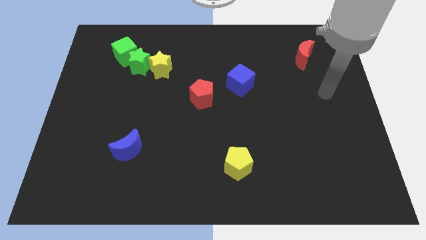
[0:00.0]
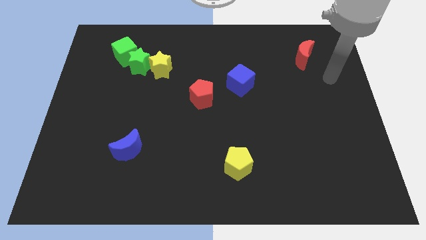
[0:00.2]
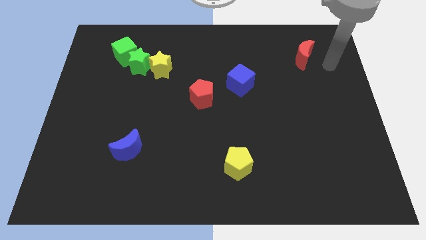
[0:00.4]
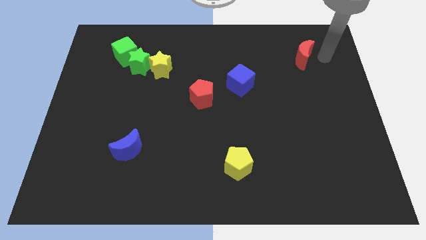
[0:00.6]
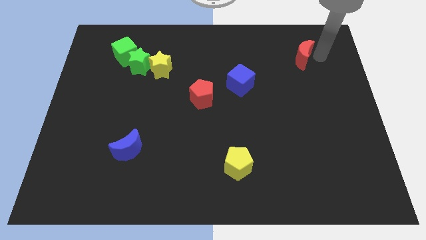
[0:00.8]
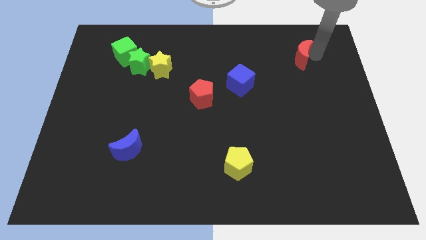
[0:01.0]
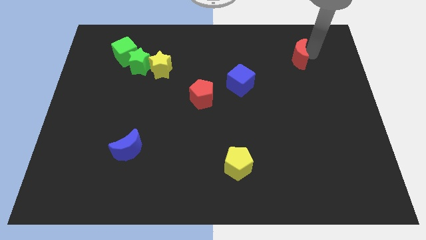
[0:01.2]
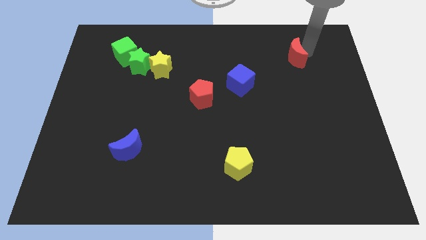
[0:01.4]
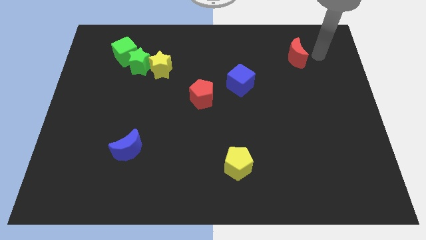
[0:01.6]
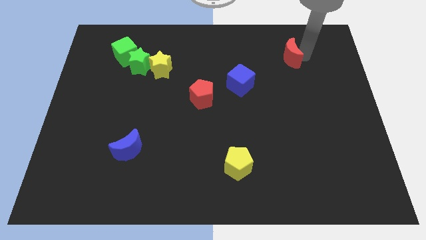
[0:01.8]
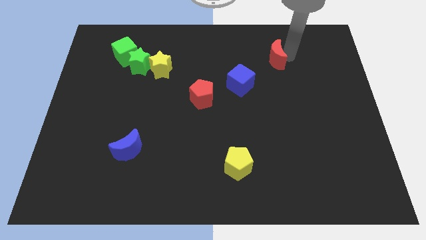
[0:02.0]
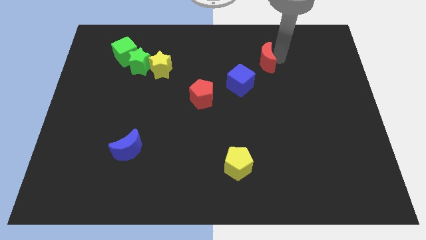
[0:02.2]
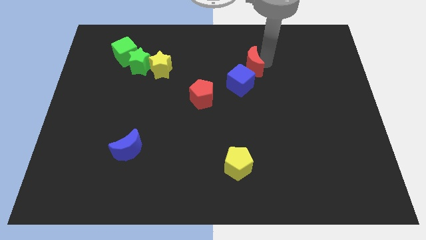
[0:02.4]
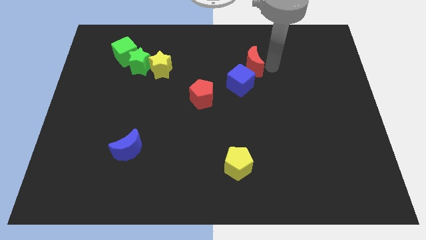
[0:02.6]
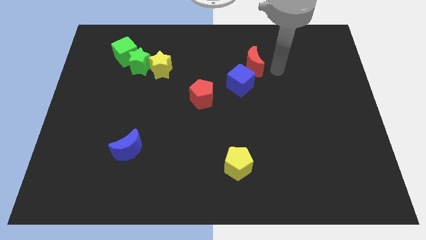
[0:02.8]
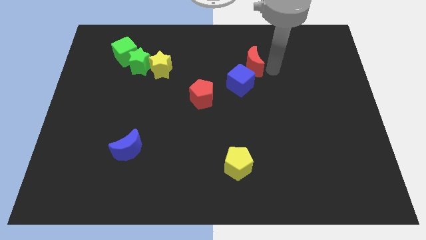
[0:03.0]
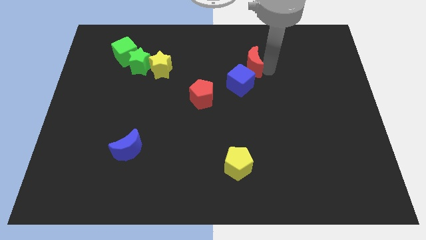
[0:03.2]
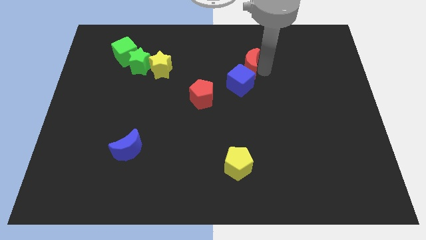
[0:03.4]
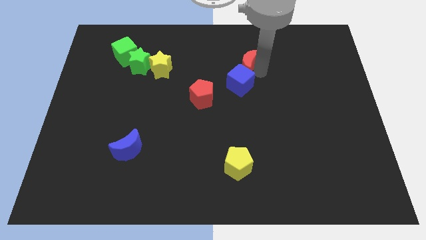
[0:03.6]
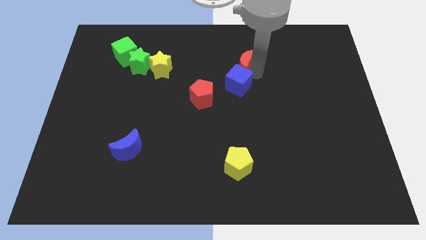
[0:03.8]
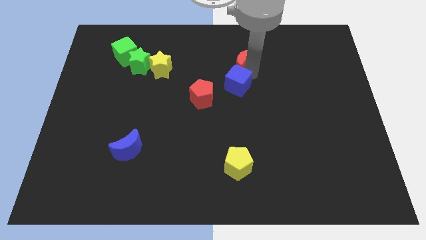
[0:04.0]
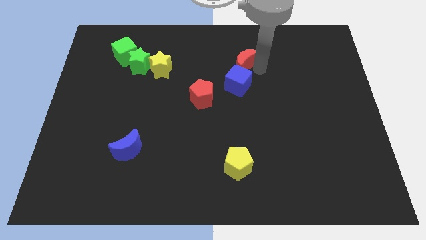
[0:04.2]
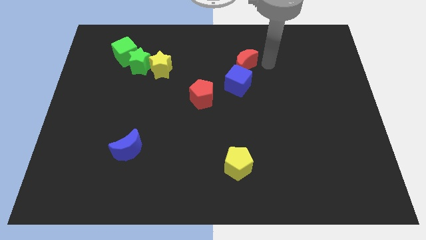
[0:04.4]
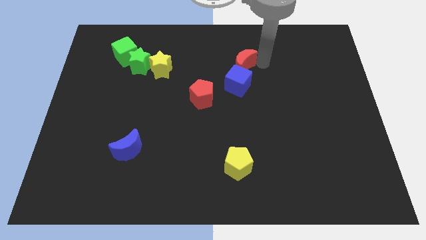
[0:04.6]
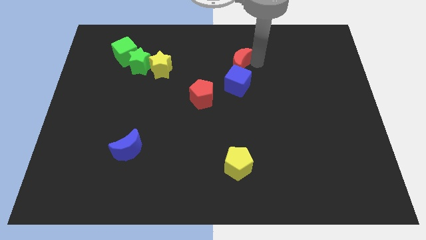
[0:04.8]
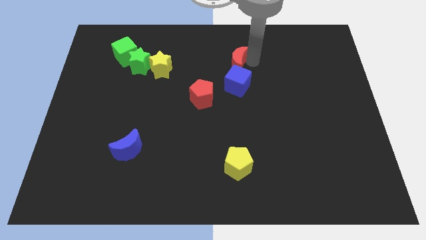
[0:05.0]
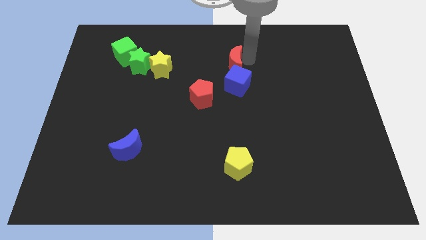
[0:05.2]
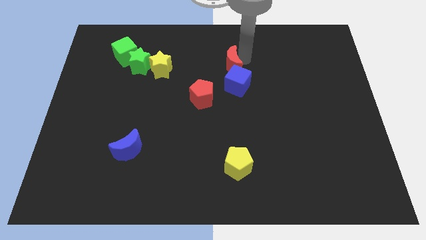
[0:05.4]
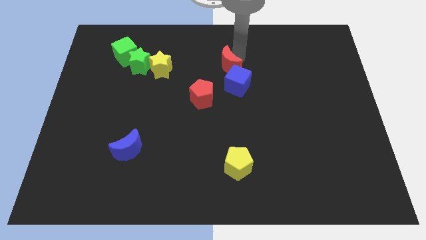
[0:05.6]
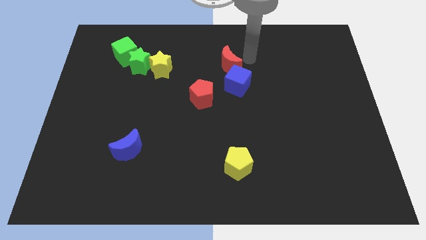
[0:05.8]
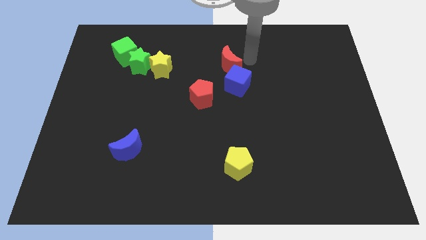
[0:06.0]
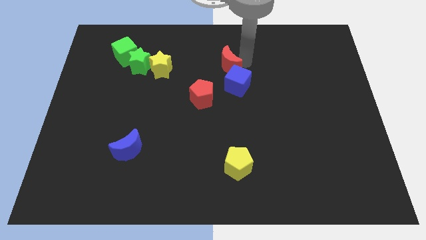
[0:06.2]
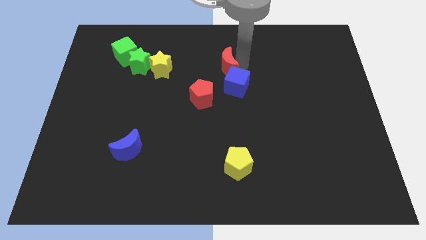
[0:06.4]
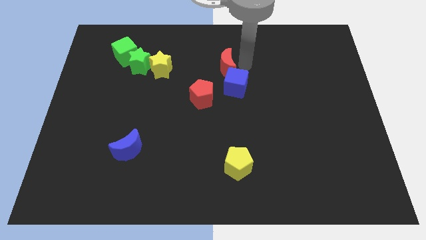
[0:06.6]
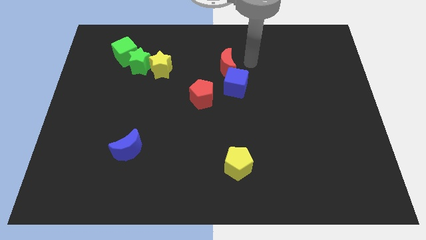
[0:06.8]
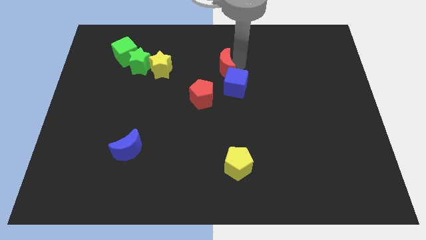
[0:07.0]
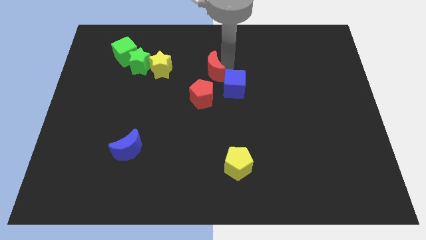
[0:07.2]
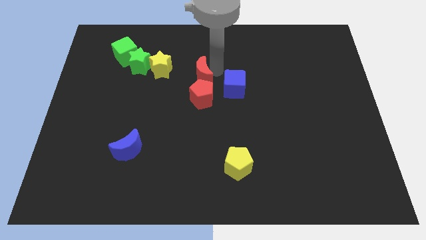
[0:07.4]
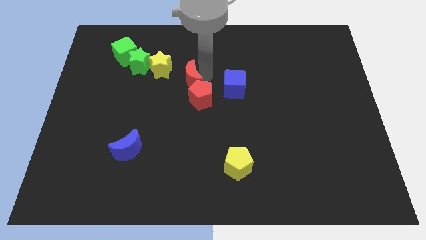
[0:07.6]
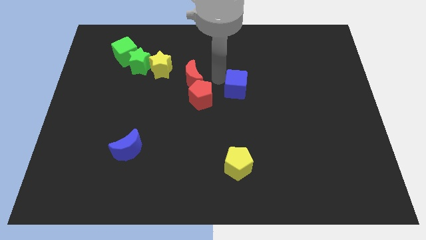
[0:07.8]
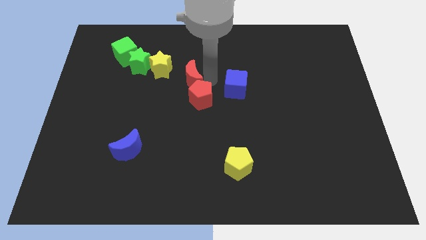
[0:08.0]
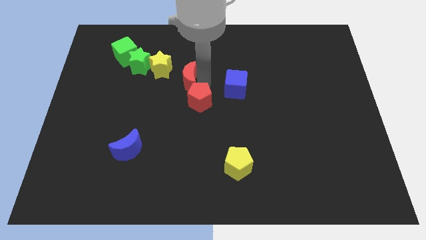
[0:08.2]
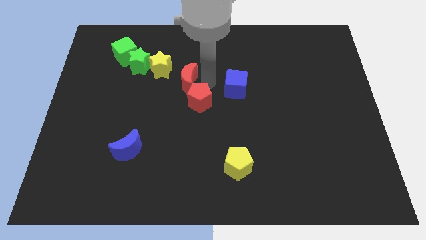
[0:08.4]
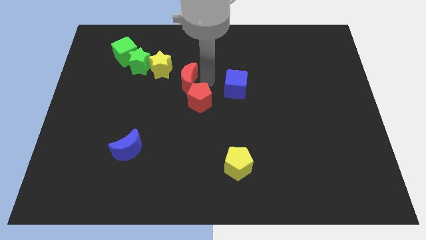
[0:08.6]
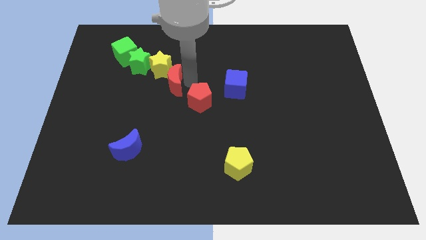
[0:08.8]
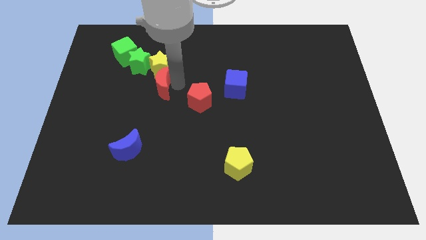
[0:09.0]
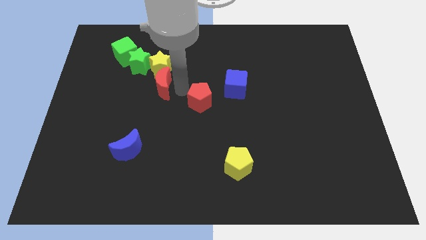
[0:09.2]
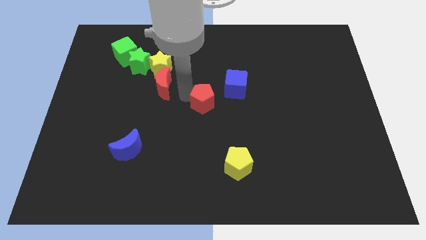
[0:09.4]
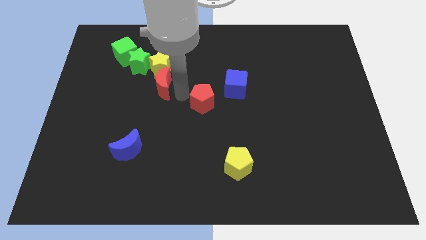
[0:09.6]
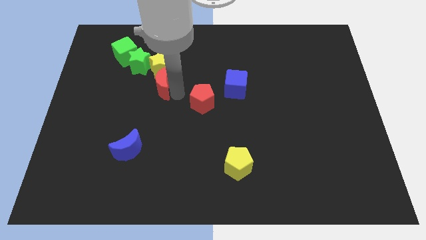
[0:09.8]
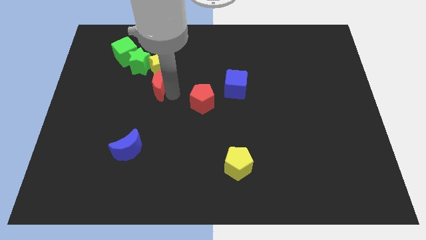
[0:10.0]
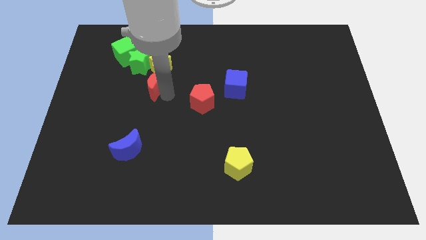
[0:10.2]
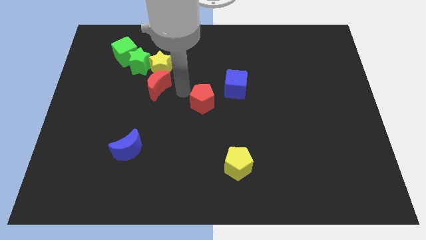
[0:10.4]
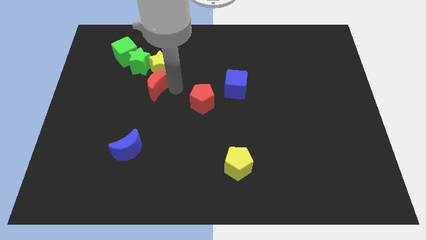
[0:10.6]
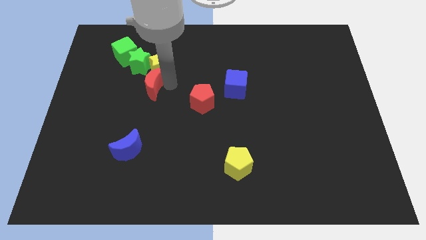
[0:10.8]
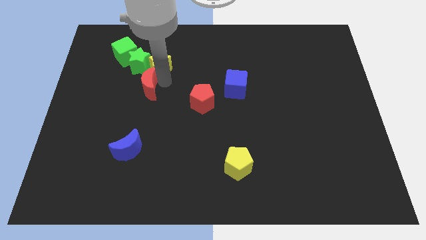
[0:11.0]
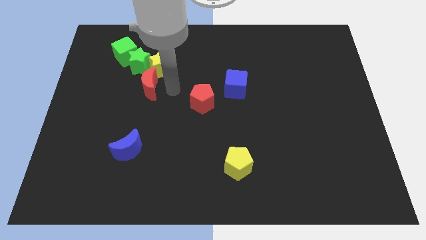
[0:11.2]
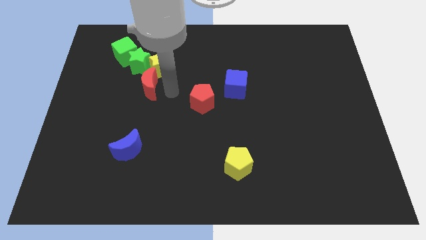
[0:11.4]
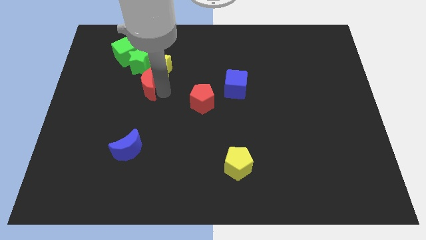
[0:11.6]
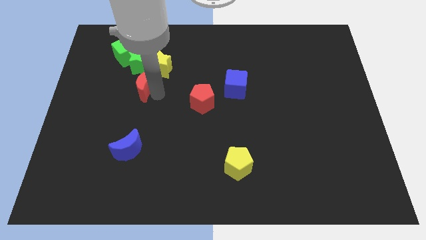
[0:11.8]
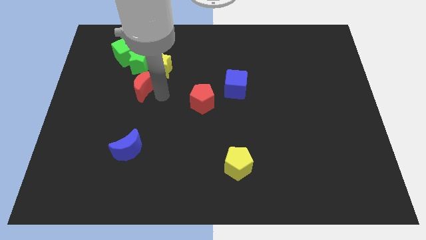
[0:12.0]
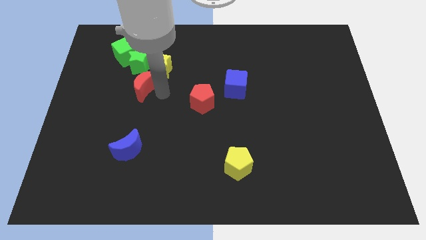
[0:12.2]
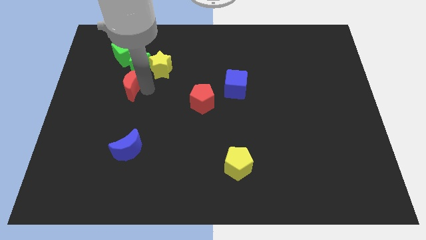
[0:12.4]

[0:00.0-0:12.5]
put the red moon to the bottom left side of the green star

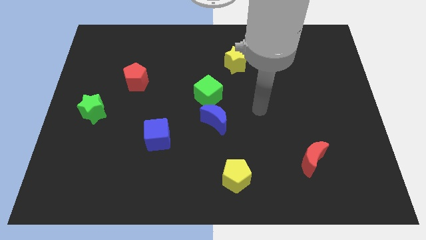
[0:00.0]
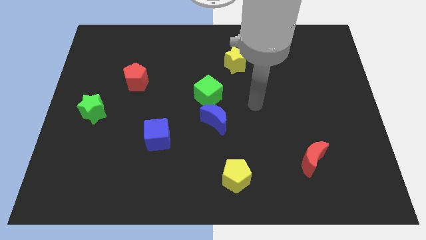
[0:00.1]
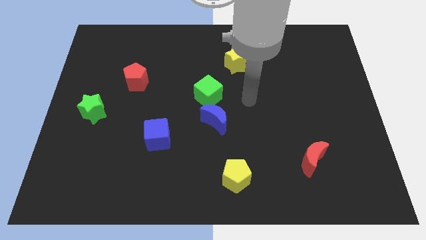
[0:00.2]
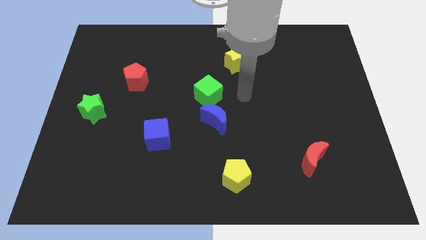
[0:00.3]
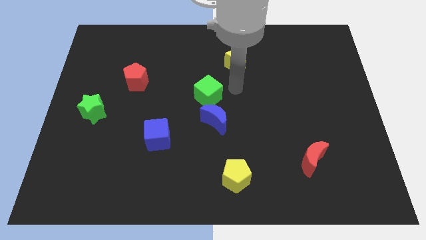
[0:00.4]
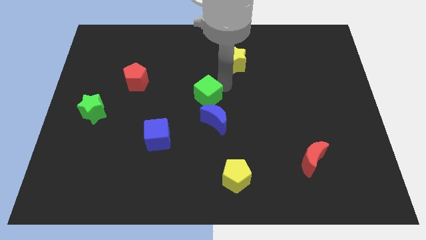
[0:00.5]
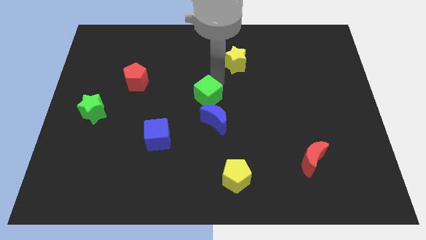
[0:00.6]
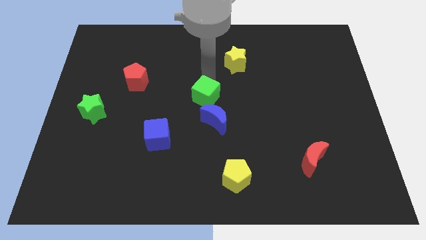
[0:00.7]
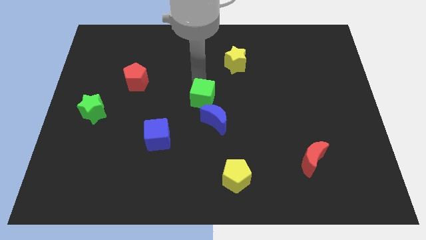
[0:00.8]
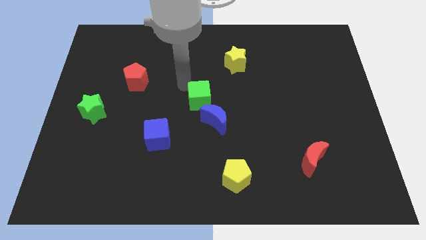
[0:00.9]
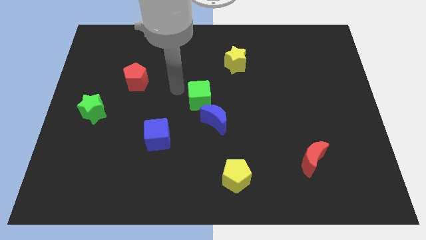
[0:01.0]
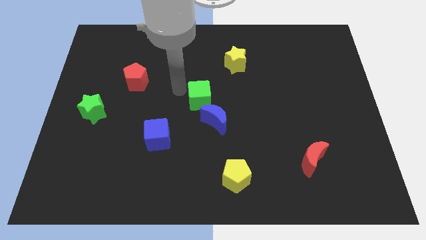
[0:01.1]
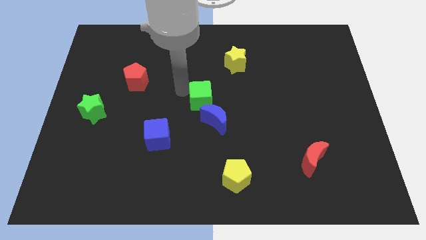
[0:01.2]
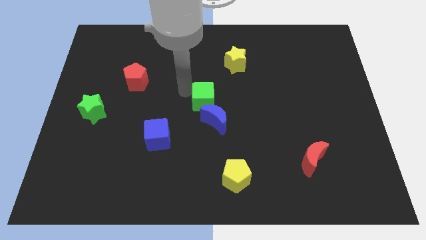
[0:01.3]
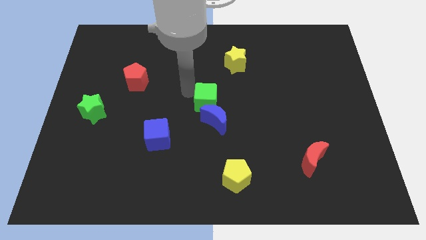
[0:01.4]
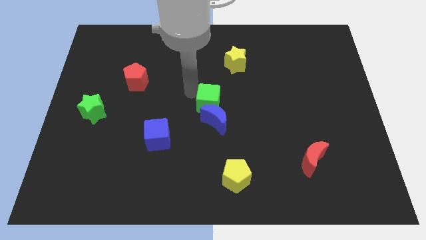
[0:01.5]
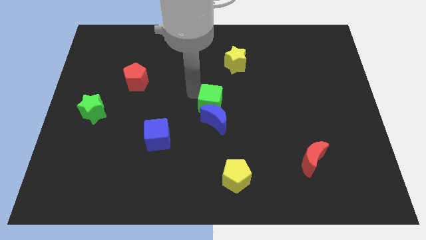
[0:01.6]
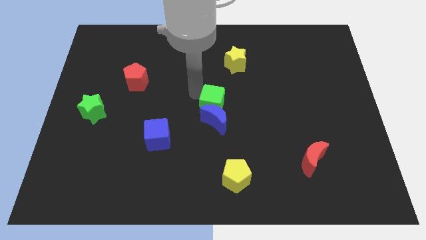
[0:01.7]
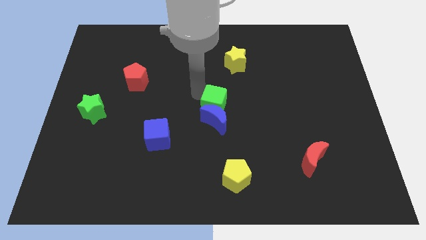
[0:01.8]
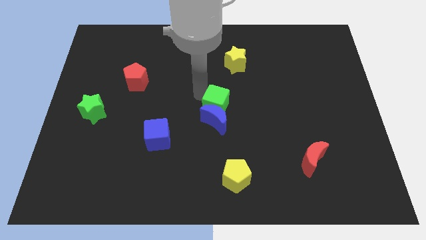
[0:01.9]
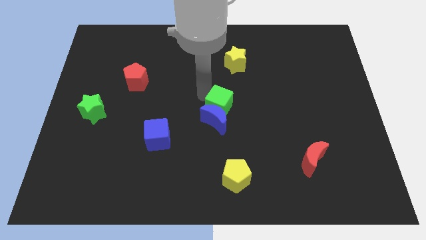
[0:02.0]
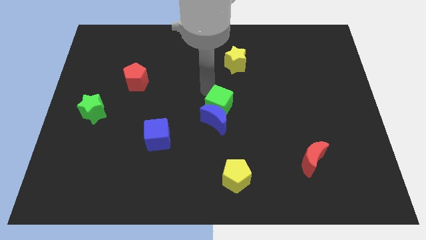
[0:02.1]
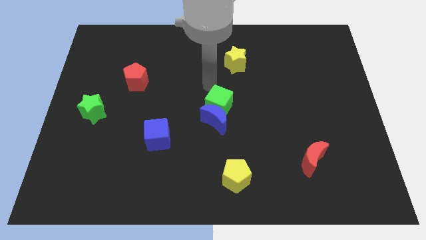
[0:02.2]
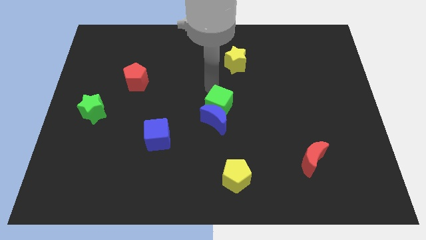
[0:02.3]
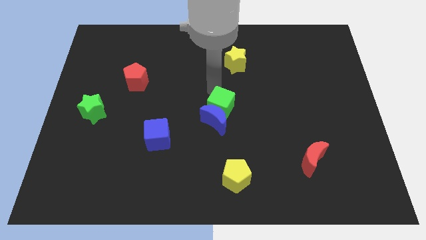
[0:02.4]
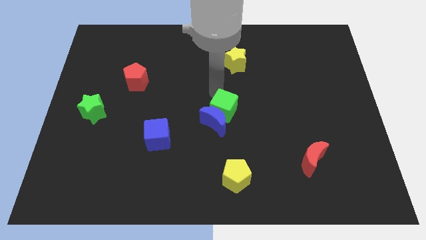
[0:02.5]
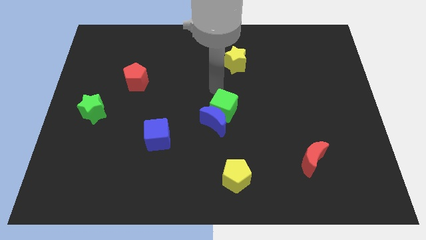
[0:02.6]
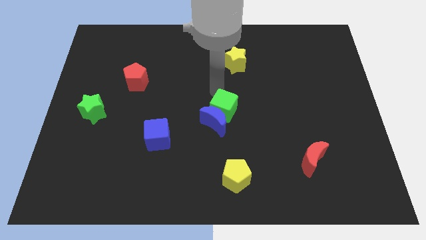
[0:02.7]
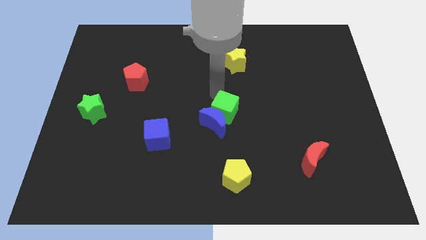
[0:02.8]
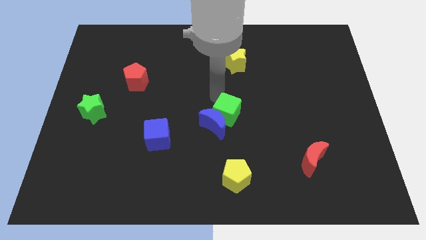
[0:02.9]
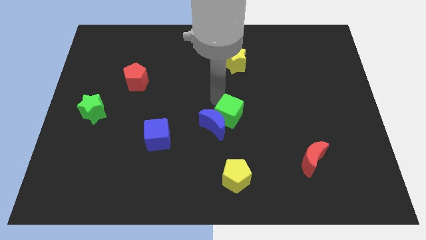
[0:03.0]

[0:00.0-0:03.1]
slide the green cube to the top of the yellow pentagon
